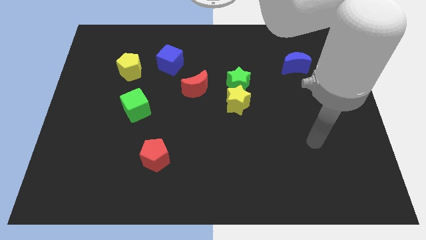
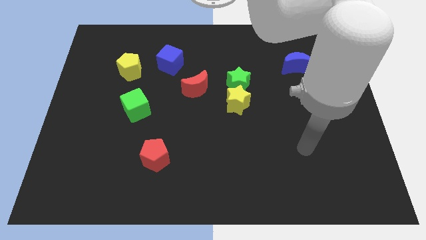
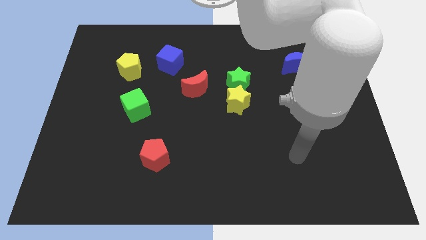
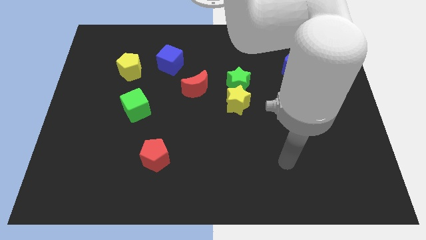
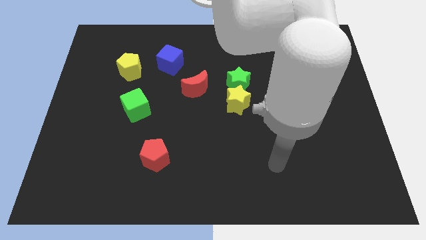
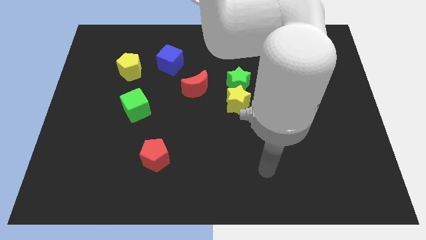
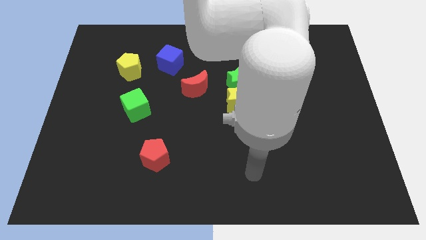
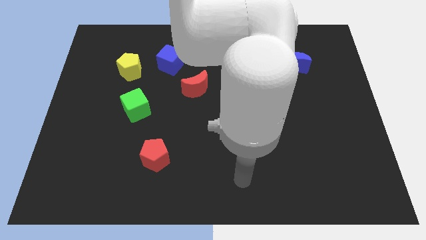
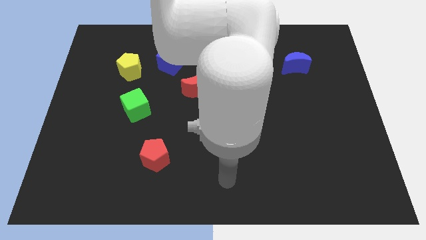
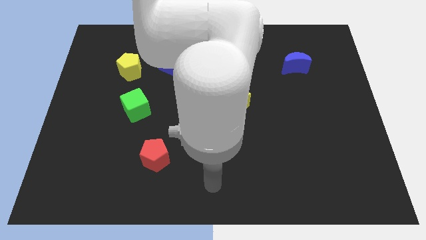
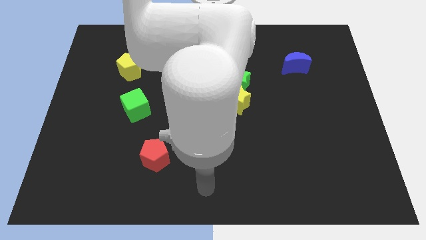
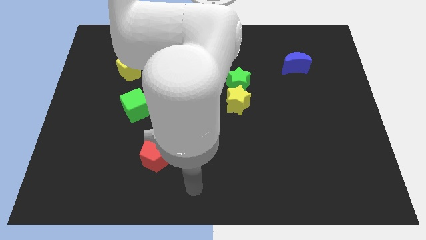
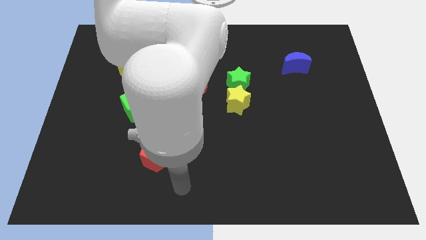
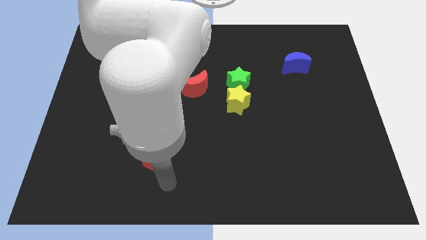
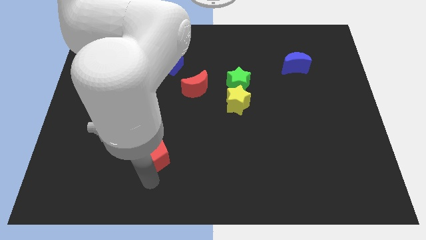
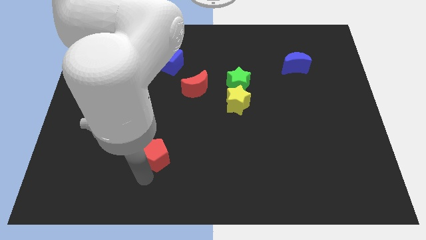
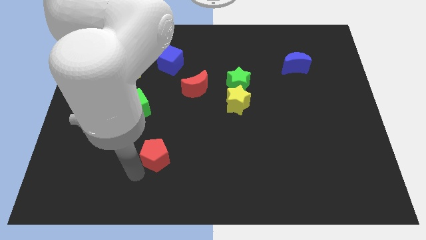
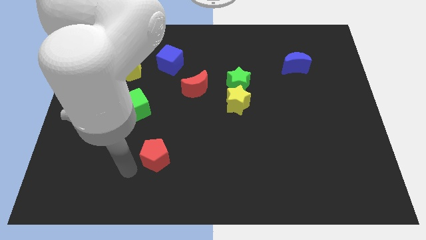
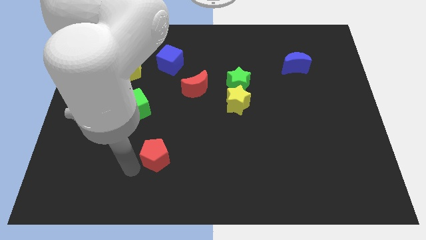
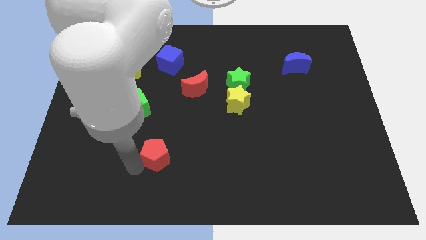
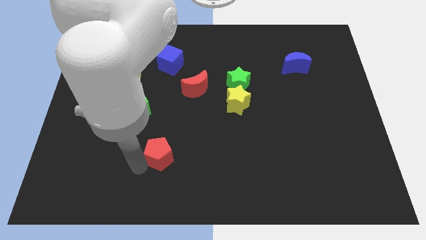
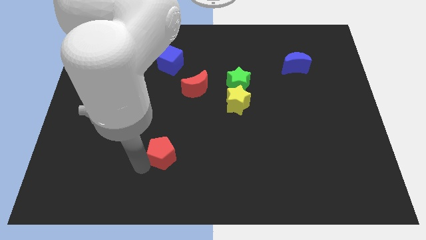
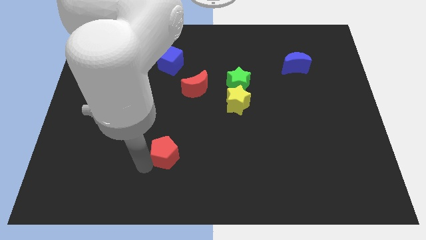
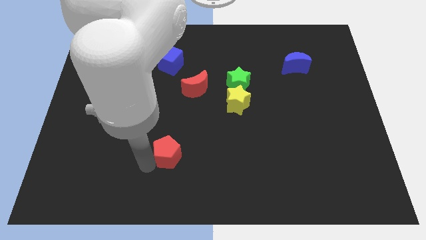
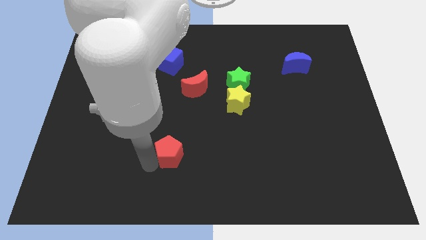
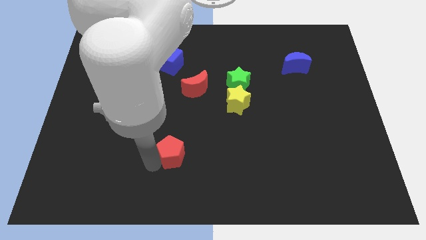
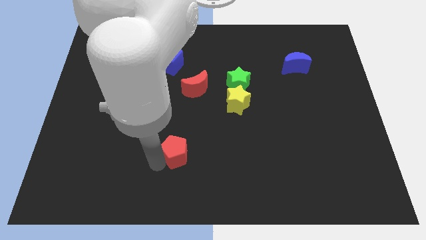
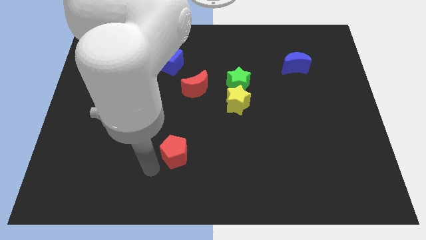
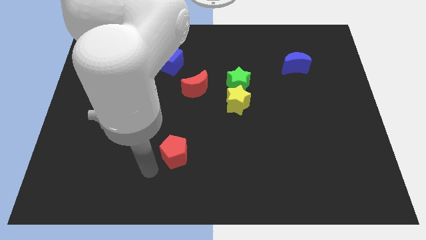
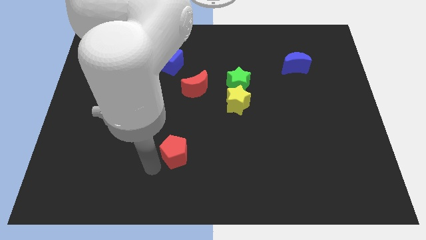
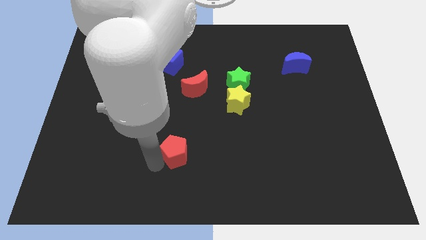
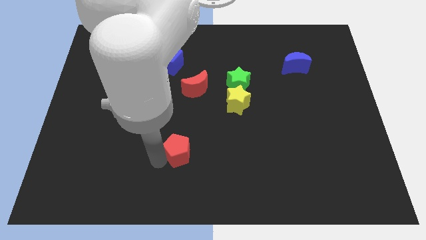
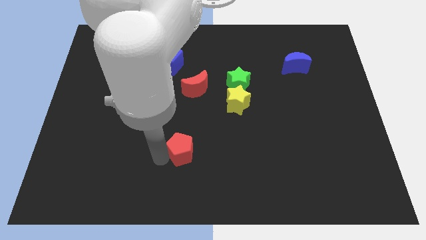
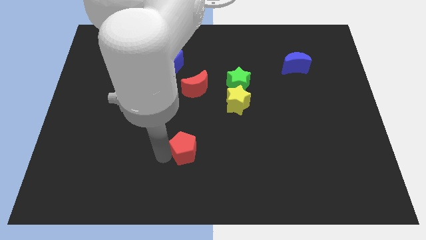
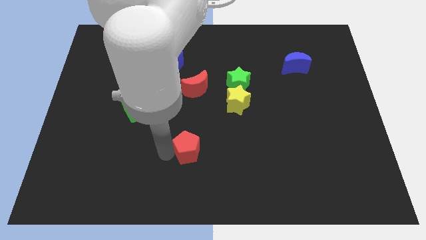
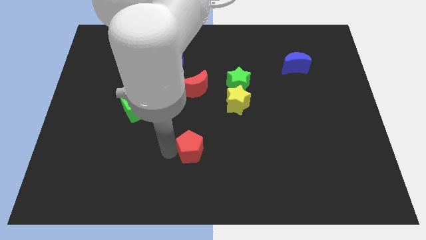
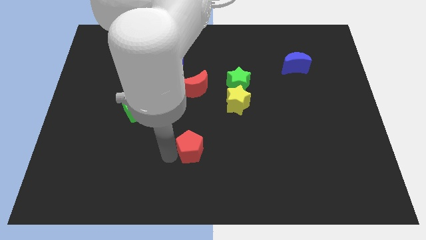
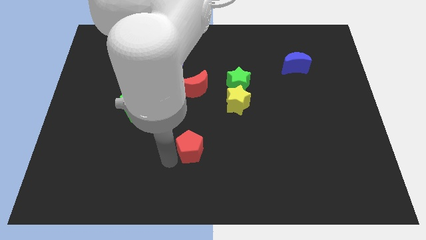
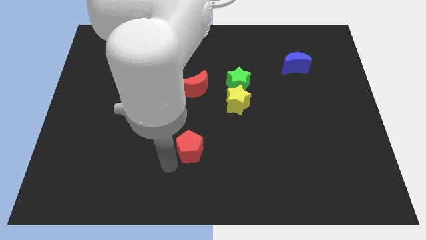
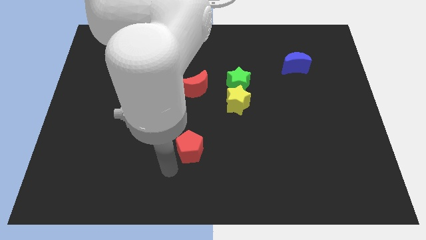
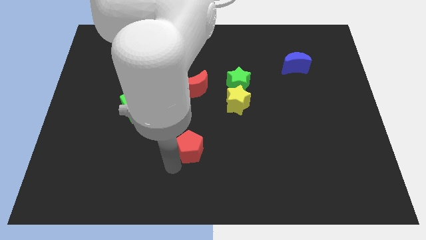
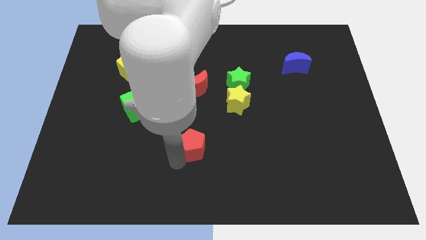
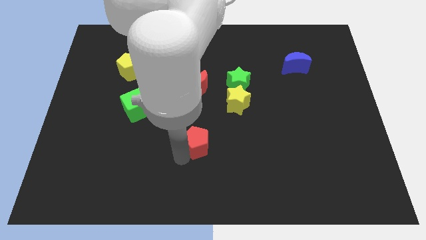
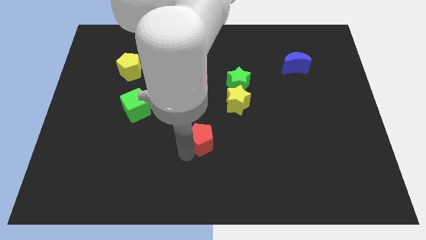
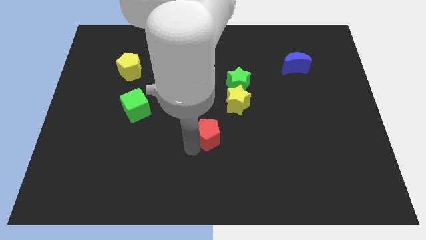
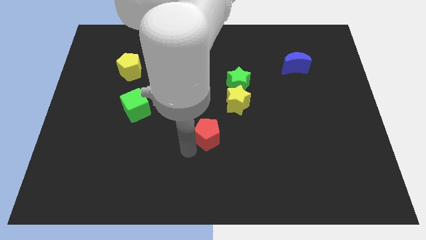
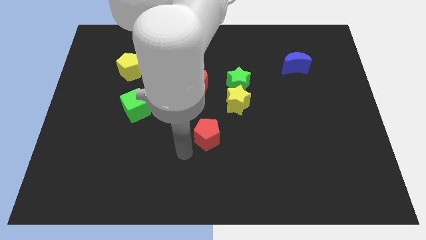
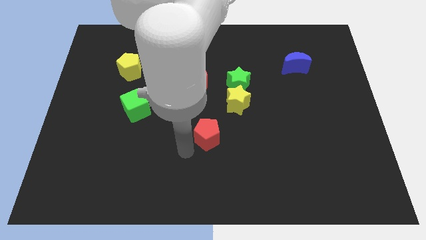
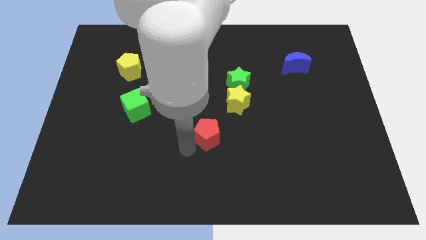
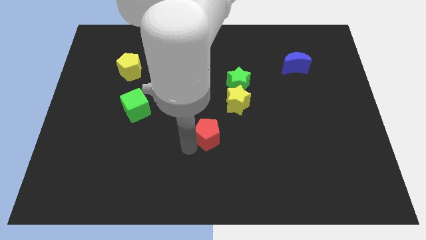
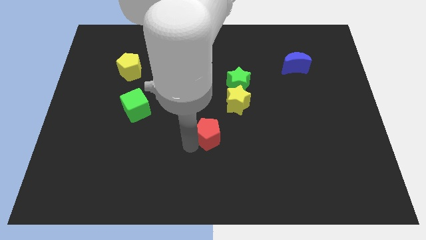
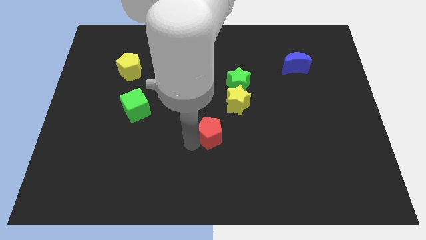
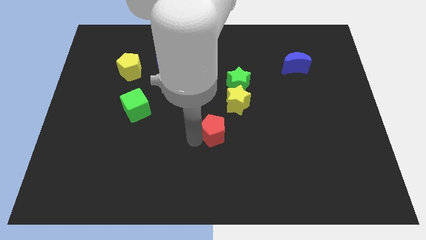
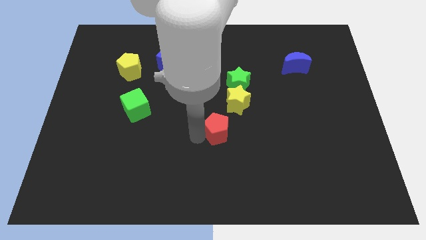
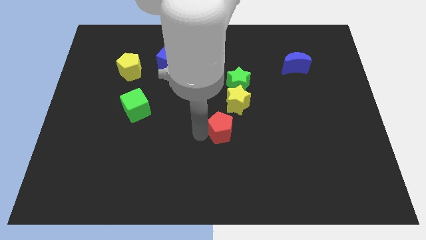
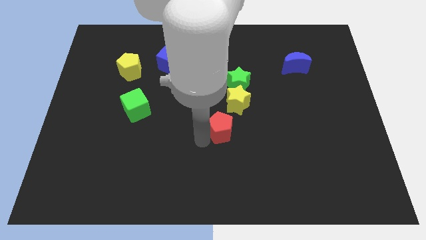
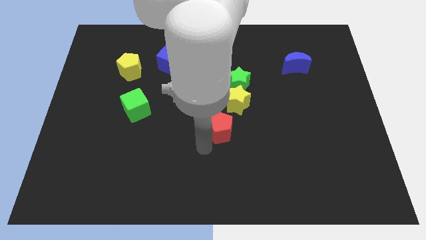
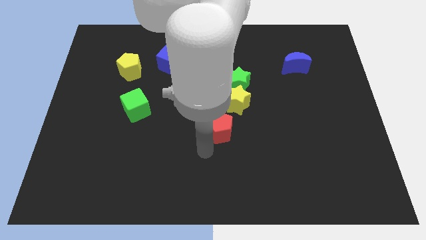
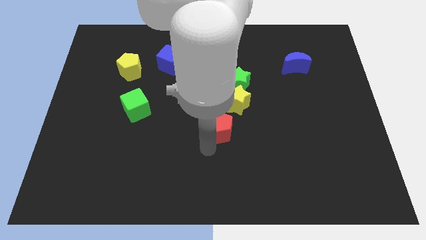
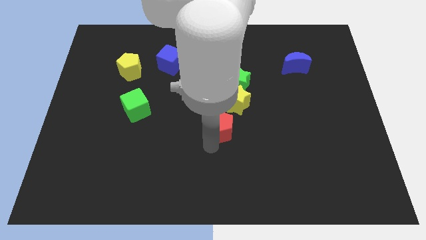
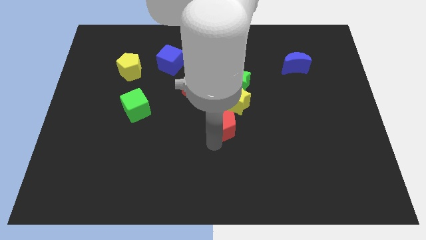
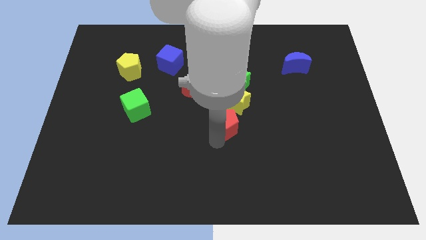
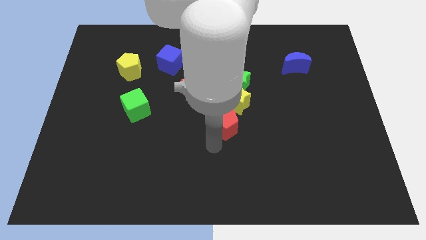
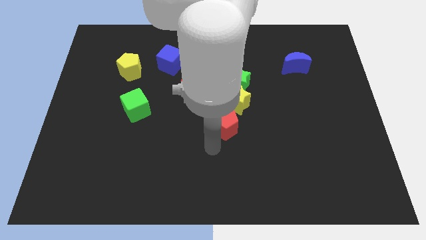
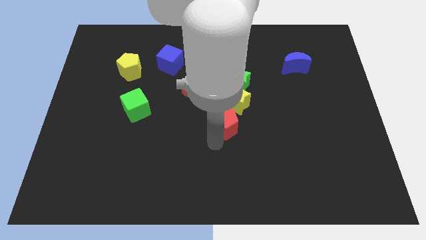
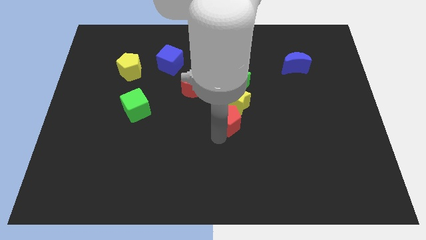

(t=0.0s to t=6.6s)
put the red pentagon next to the yellow star

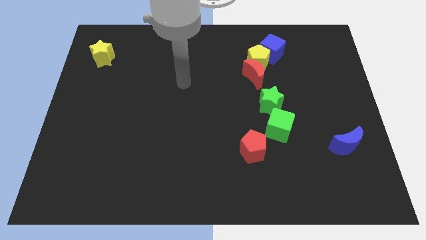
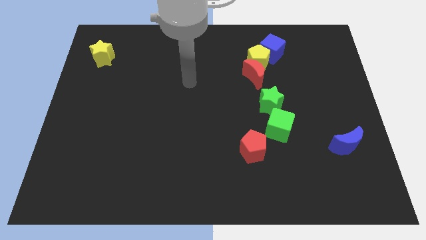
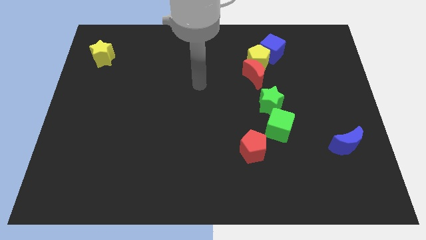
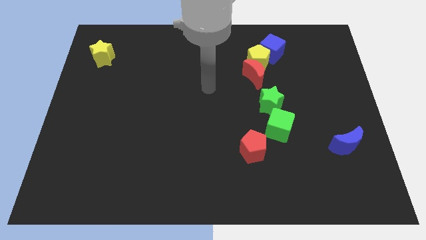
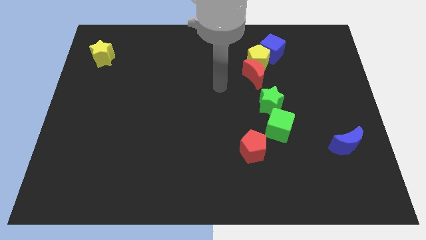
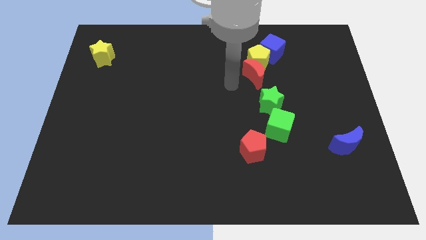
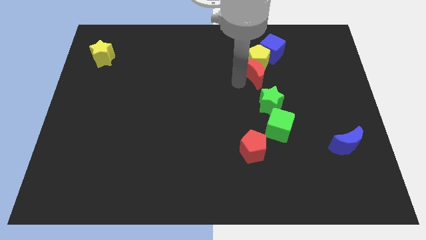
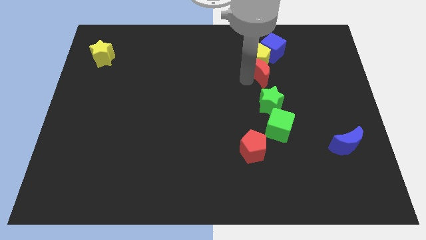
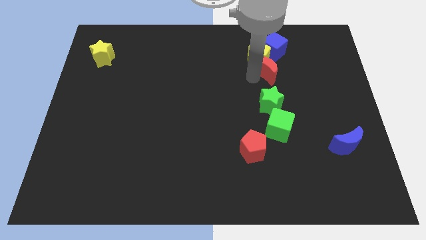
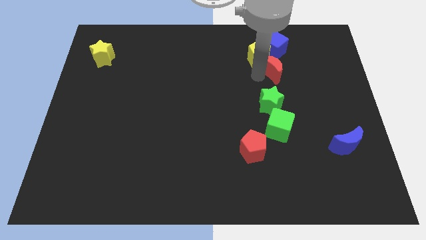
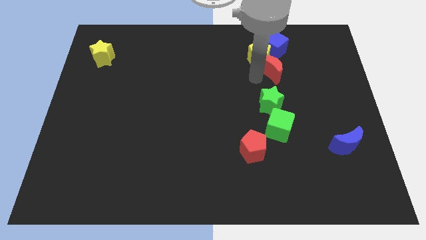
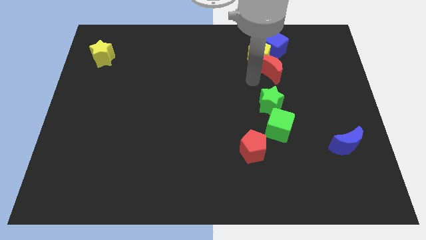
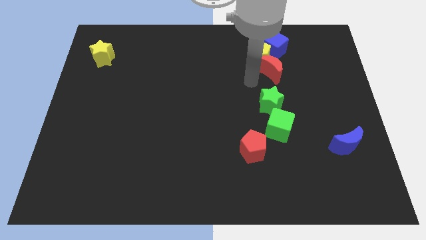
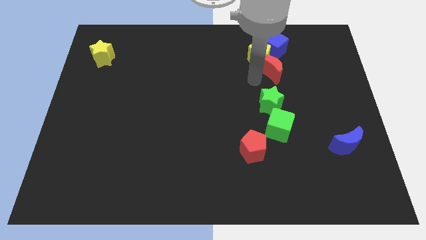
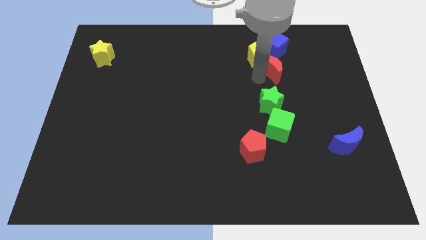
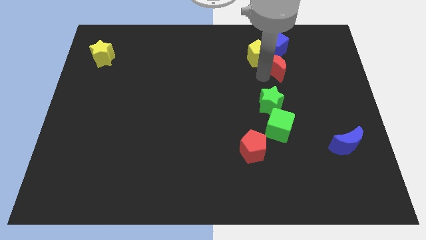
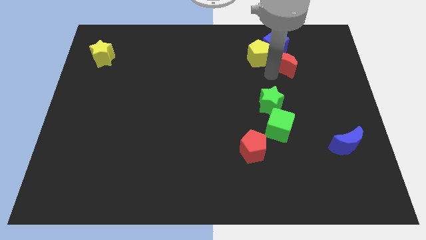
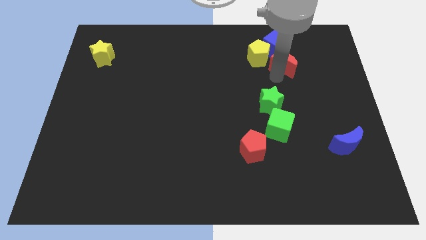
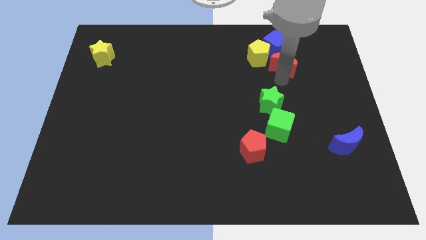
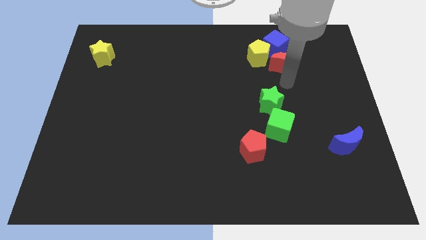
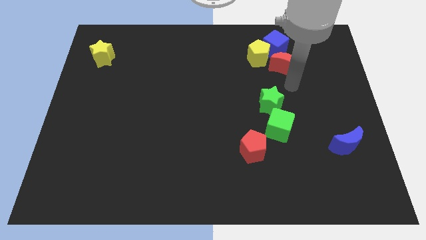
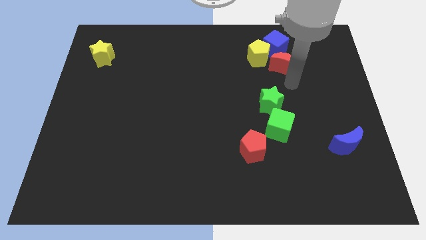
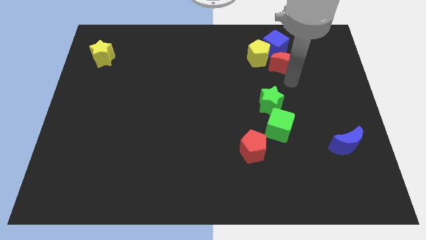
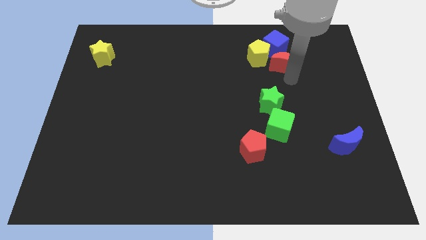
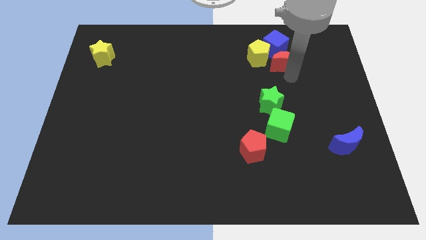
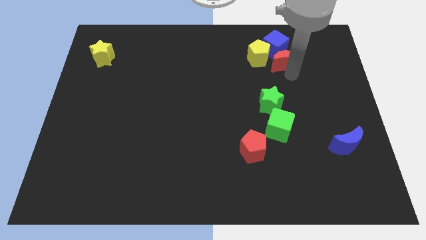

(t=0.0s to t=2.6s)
put the red moon to the blue cube
